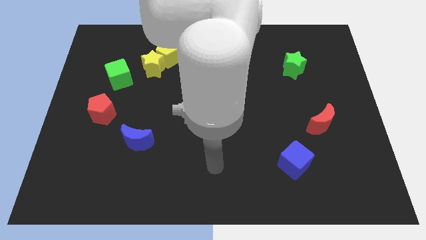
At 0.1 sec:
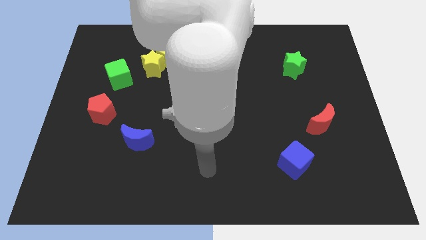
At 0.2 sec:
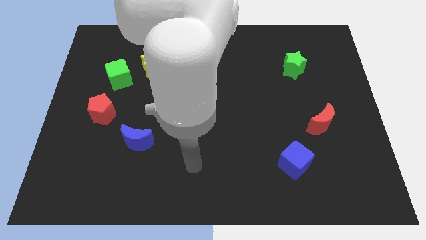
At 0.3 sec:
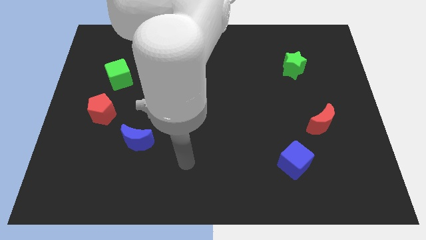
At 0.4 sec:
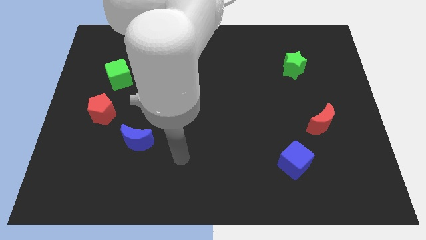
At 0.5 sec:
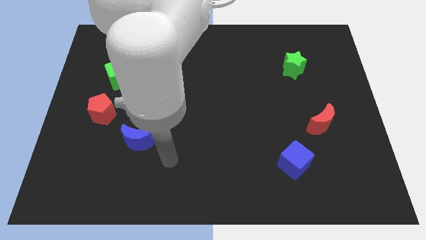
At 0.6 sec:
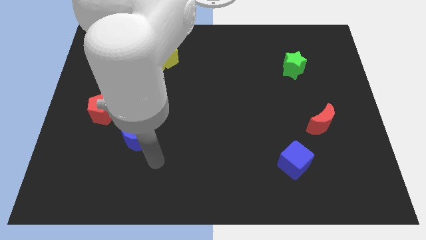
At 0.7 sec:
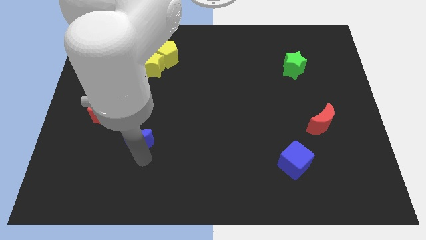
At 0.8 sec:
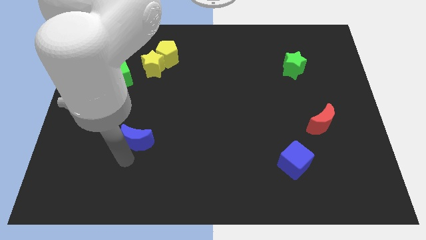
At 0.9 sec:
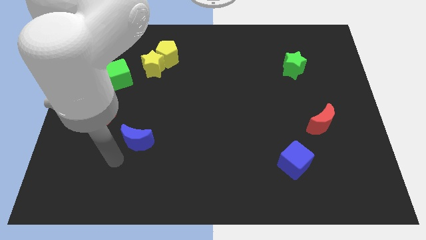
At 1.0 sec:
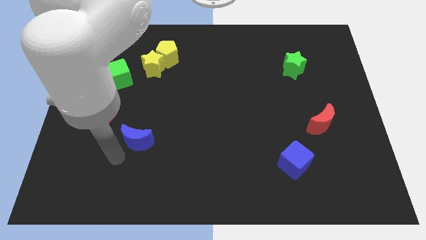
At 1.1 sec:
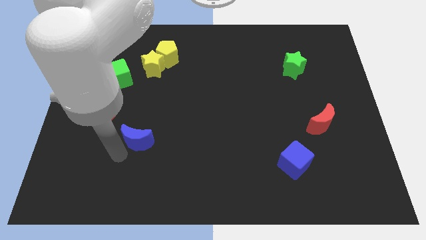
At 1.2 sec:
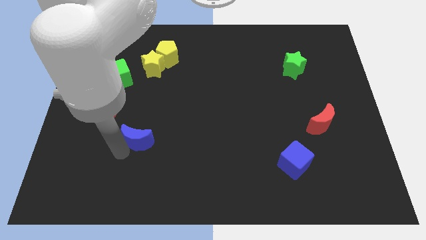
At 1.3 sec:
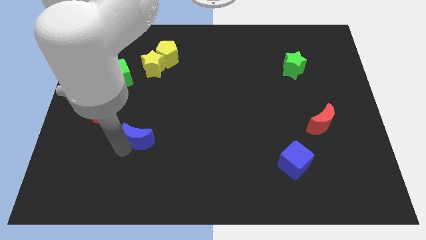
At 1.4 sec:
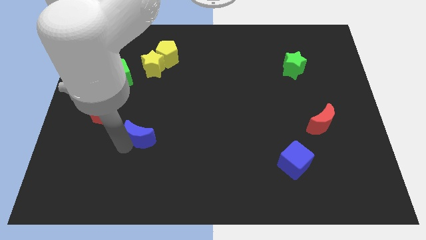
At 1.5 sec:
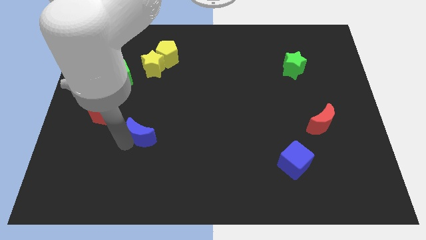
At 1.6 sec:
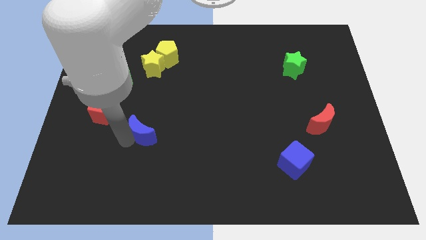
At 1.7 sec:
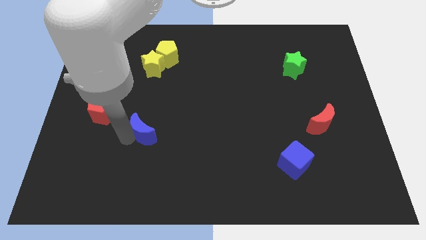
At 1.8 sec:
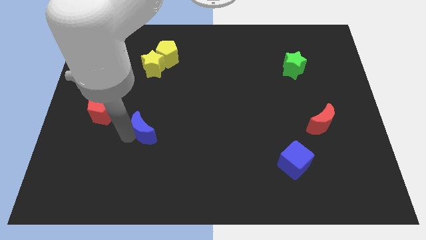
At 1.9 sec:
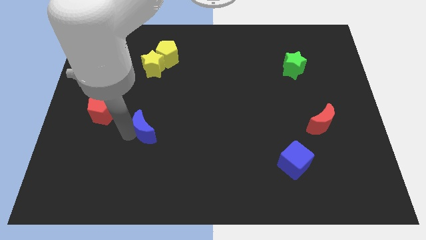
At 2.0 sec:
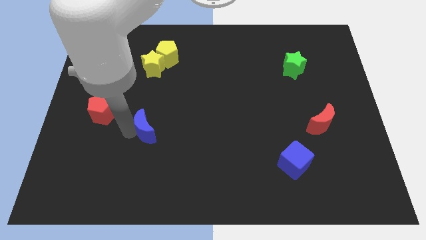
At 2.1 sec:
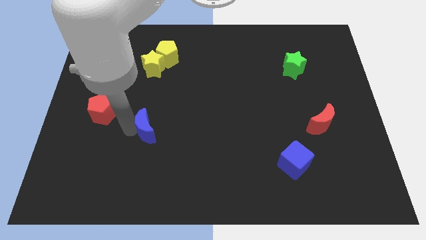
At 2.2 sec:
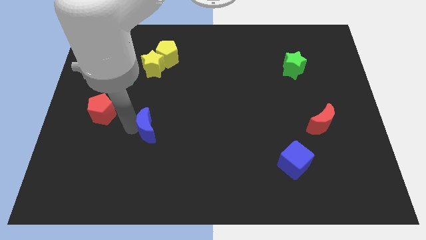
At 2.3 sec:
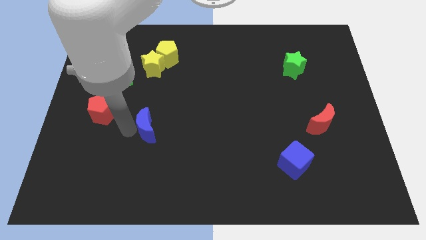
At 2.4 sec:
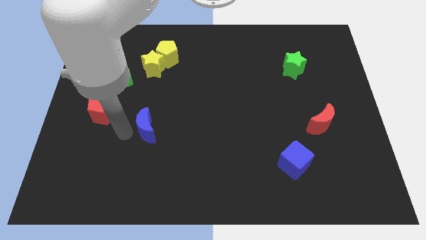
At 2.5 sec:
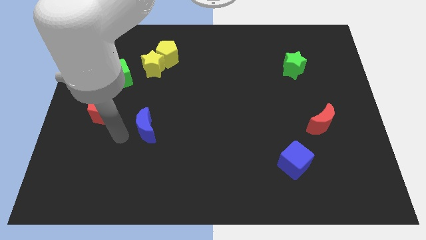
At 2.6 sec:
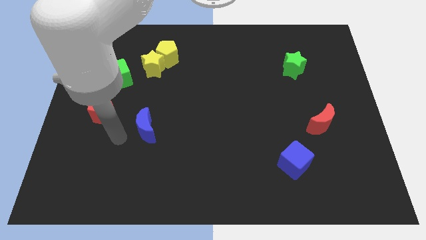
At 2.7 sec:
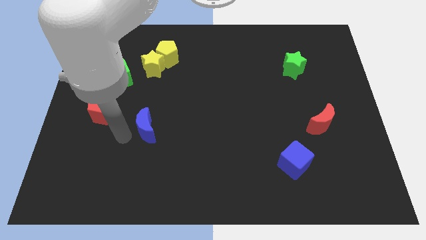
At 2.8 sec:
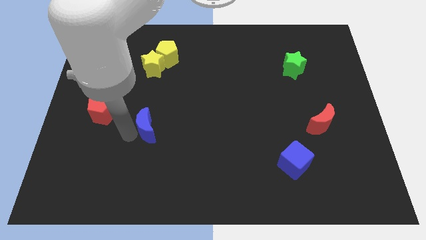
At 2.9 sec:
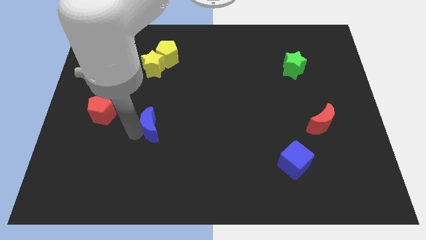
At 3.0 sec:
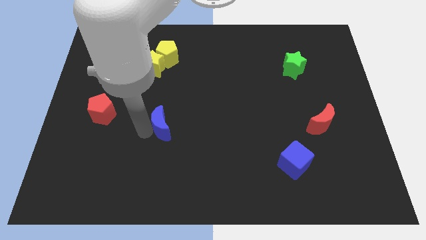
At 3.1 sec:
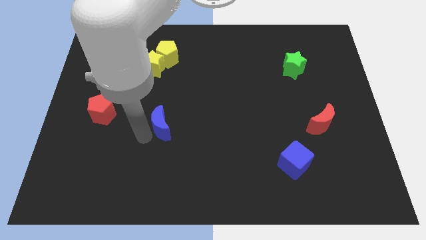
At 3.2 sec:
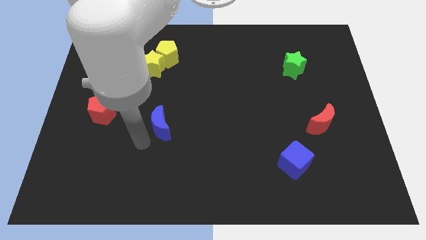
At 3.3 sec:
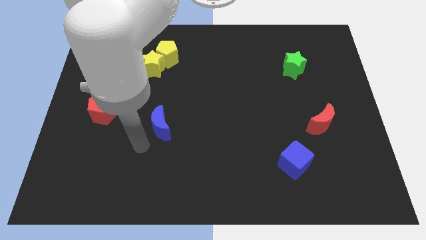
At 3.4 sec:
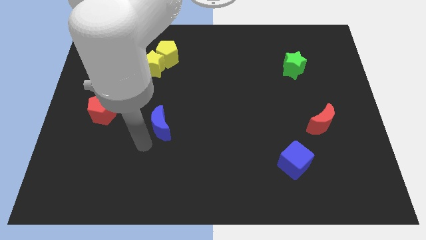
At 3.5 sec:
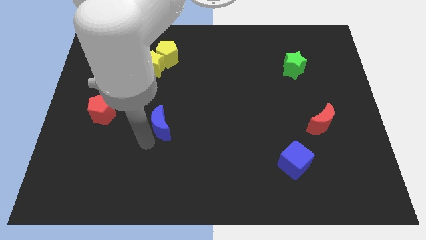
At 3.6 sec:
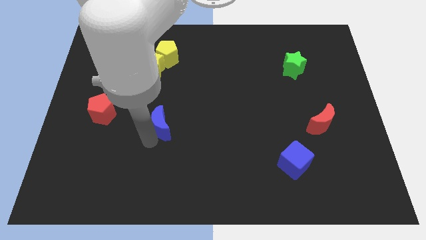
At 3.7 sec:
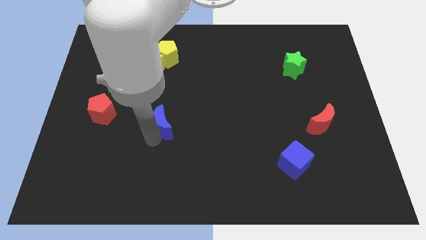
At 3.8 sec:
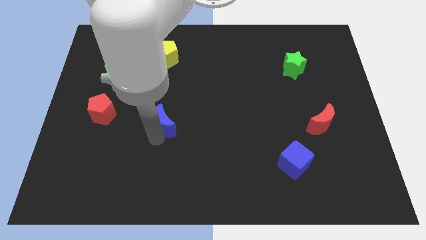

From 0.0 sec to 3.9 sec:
slightly move the blue moon up and right diagonally

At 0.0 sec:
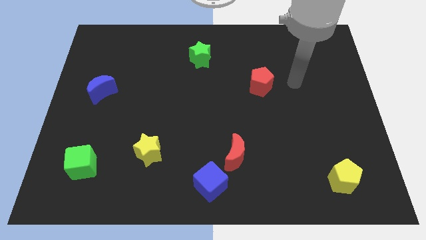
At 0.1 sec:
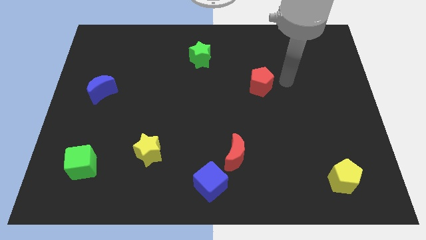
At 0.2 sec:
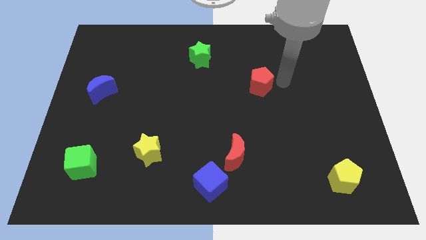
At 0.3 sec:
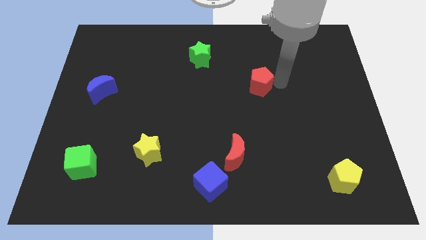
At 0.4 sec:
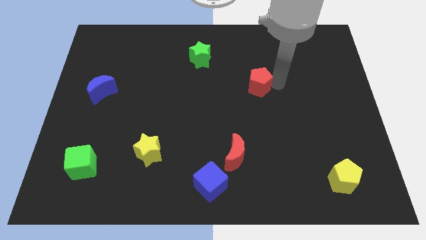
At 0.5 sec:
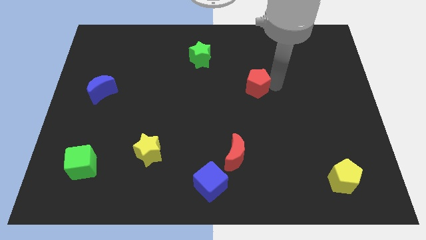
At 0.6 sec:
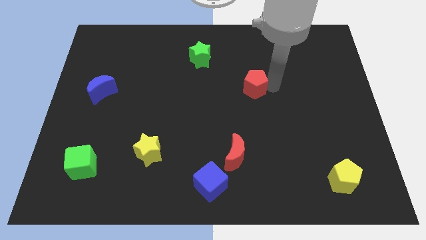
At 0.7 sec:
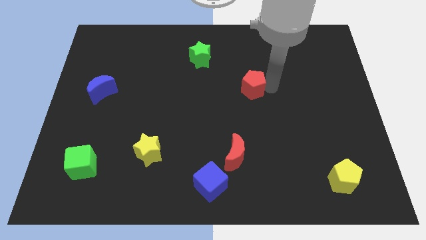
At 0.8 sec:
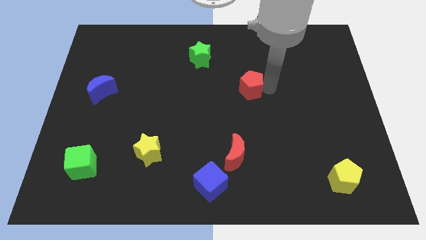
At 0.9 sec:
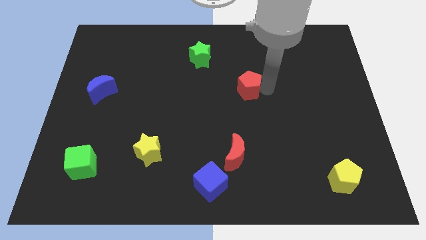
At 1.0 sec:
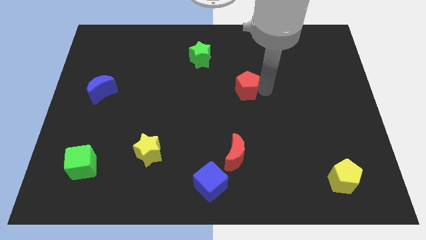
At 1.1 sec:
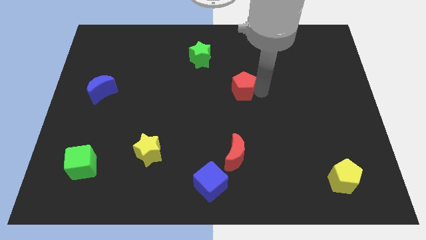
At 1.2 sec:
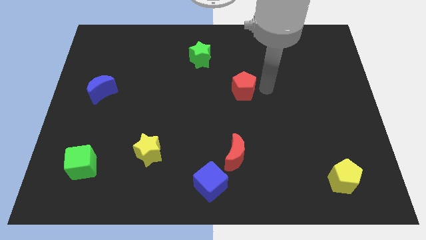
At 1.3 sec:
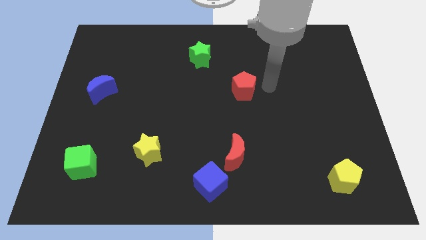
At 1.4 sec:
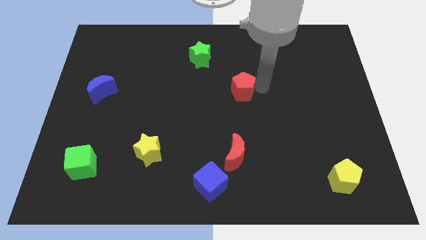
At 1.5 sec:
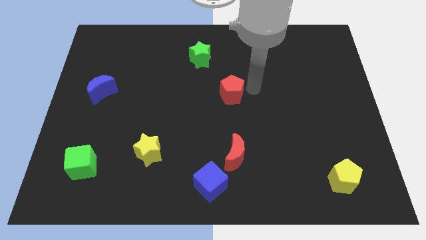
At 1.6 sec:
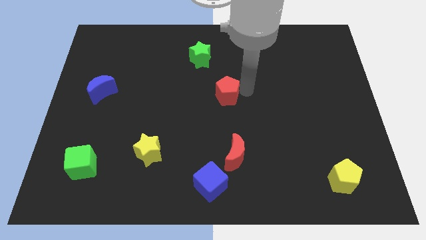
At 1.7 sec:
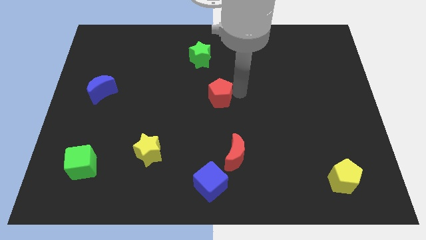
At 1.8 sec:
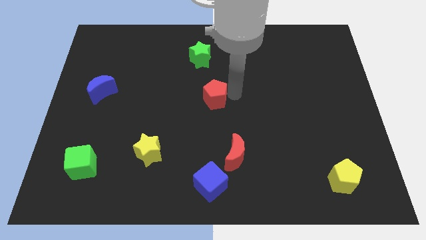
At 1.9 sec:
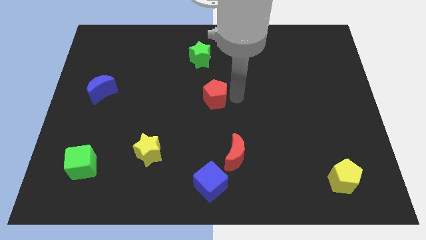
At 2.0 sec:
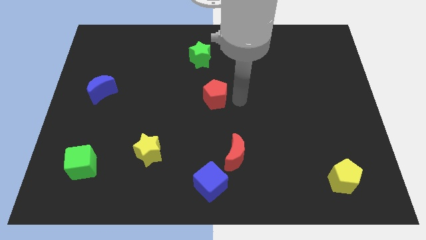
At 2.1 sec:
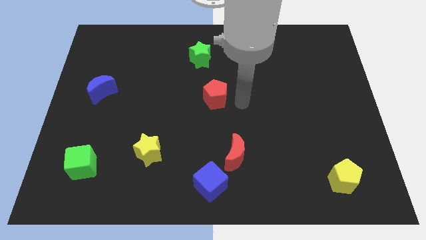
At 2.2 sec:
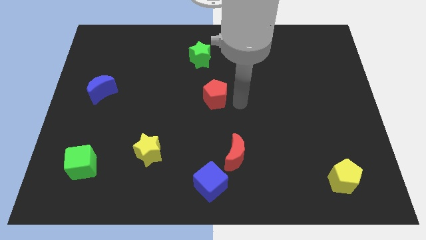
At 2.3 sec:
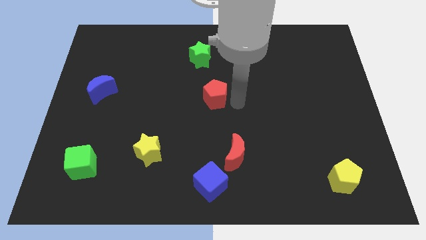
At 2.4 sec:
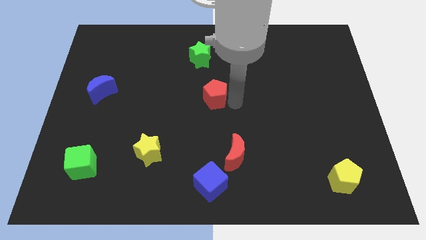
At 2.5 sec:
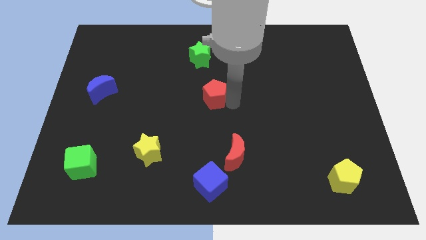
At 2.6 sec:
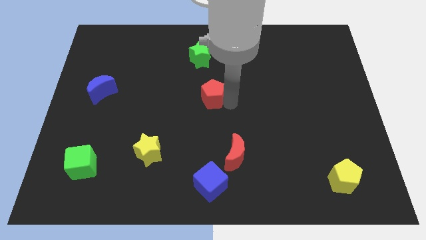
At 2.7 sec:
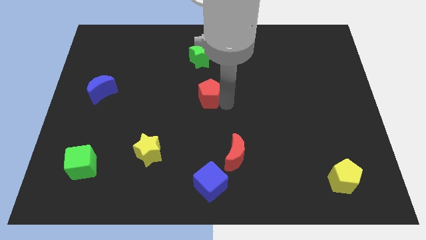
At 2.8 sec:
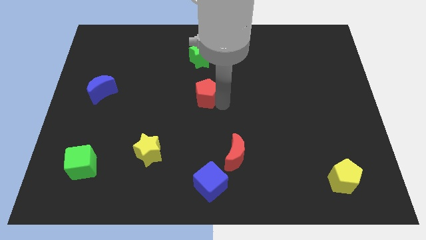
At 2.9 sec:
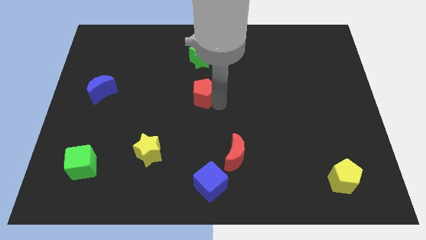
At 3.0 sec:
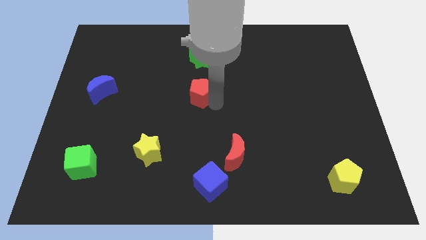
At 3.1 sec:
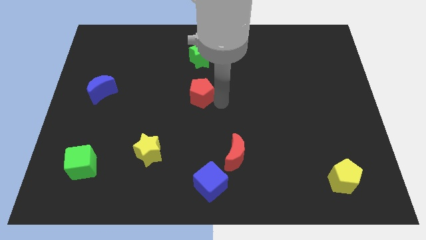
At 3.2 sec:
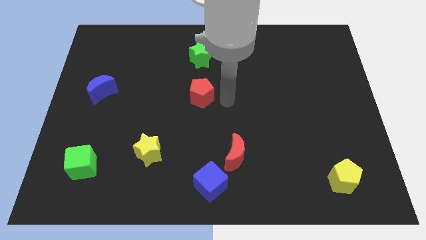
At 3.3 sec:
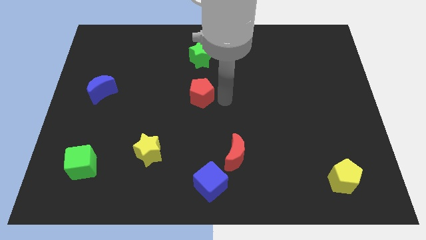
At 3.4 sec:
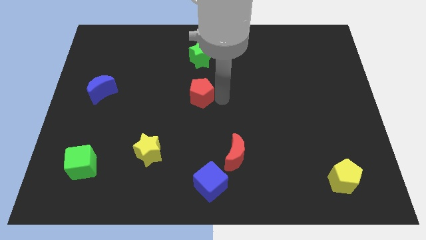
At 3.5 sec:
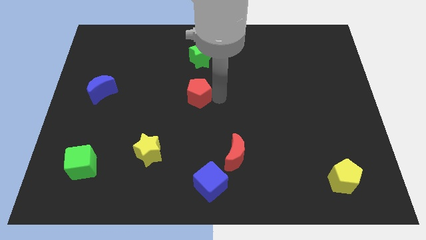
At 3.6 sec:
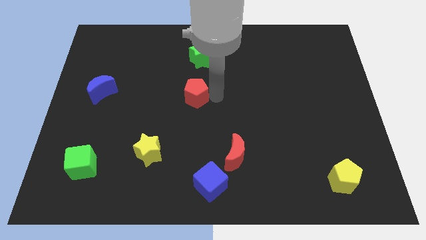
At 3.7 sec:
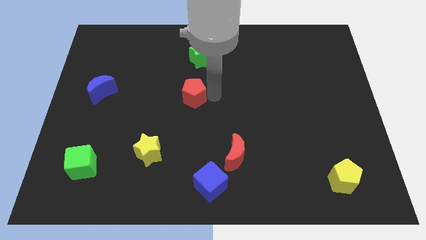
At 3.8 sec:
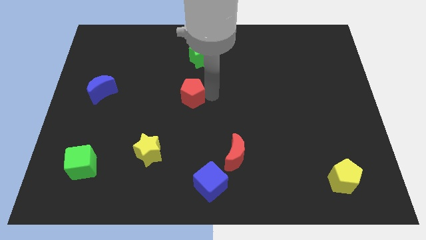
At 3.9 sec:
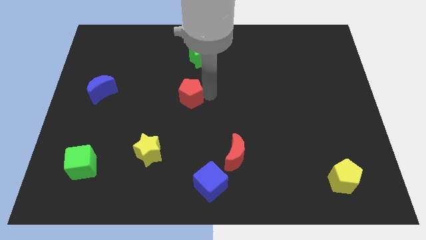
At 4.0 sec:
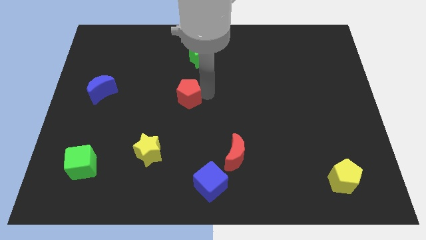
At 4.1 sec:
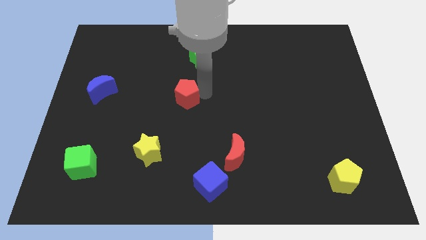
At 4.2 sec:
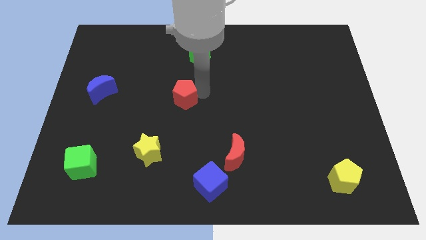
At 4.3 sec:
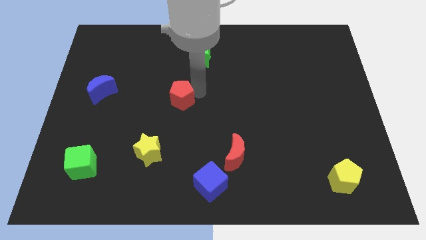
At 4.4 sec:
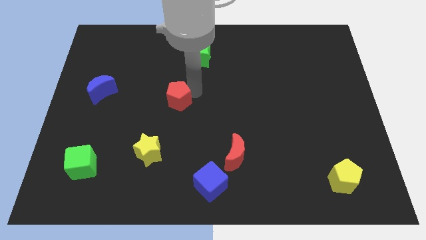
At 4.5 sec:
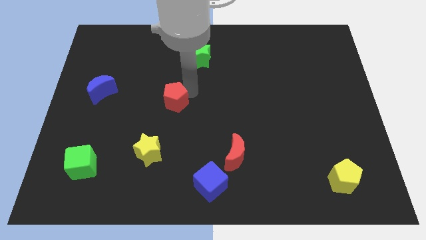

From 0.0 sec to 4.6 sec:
slide the red pentagon left
